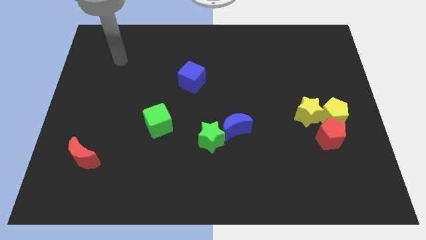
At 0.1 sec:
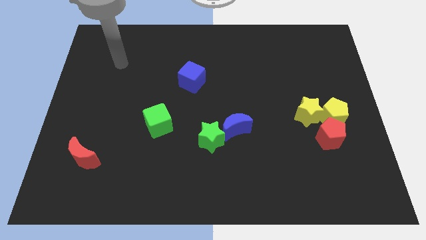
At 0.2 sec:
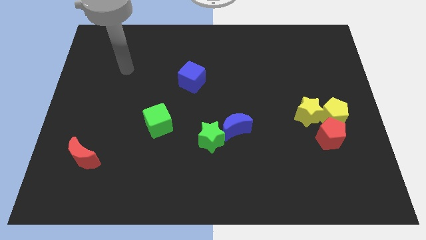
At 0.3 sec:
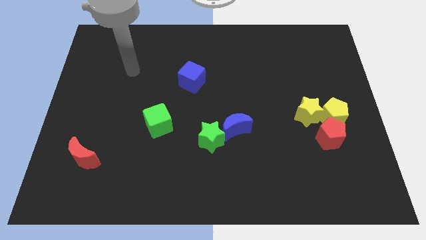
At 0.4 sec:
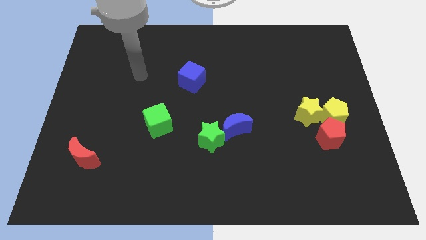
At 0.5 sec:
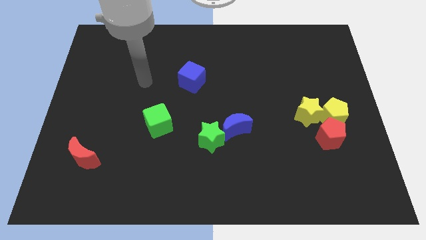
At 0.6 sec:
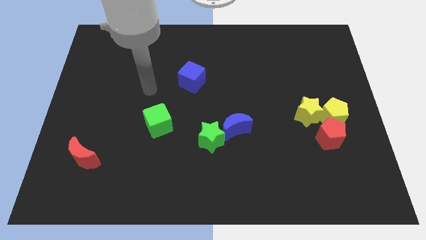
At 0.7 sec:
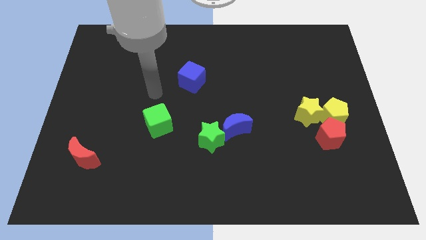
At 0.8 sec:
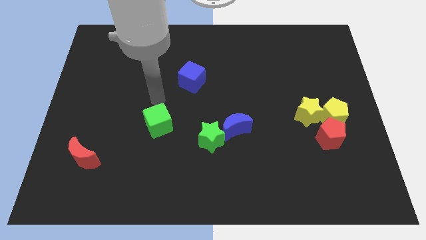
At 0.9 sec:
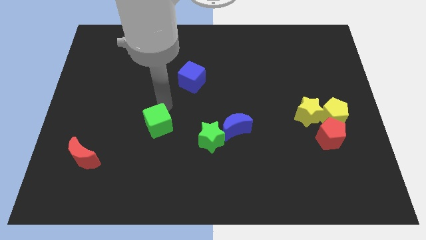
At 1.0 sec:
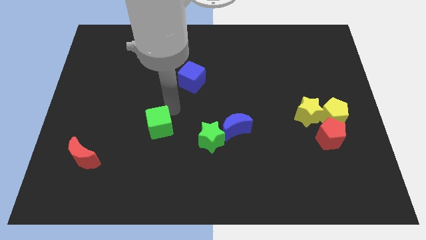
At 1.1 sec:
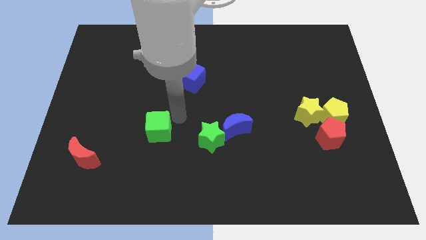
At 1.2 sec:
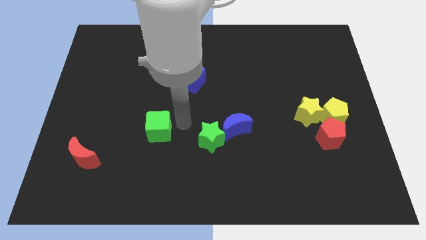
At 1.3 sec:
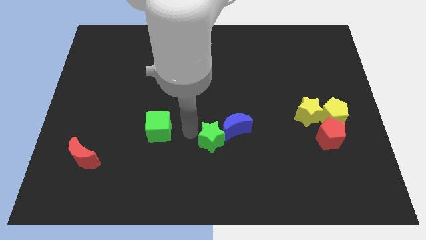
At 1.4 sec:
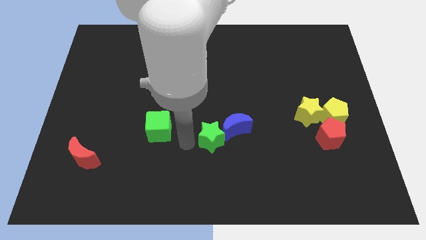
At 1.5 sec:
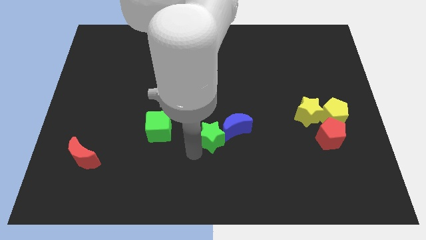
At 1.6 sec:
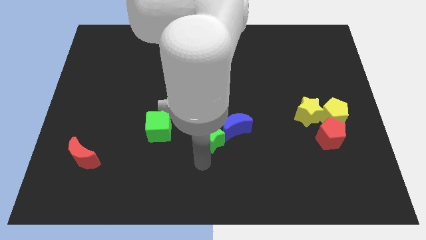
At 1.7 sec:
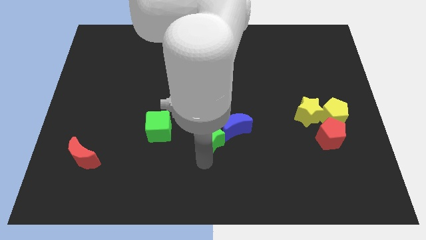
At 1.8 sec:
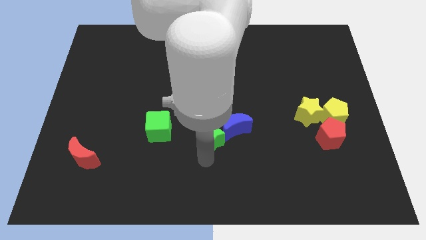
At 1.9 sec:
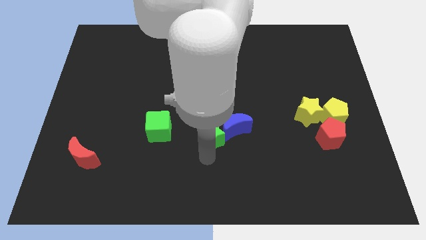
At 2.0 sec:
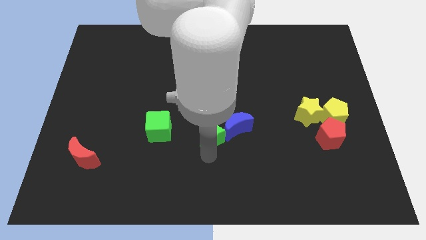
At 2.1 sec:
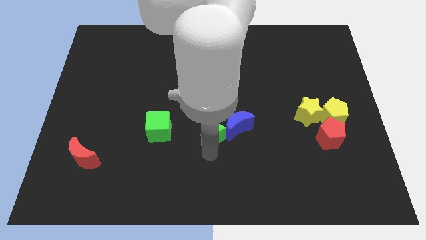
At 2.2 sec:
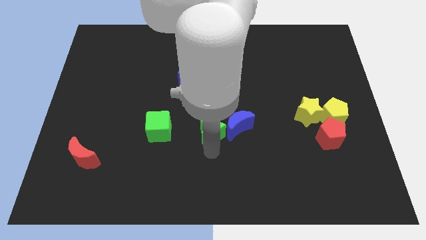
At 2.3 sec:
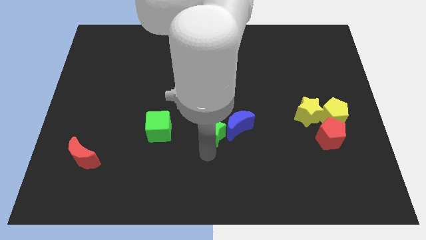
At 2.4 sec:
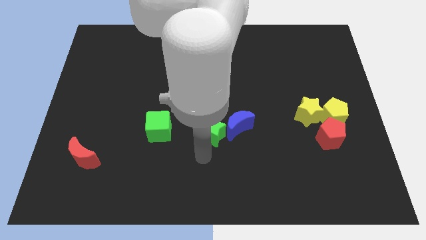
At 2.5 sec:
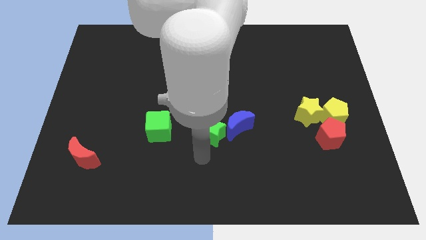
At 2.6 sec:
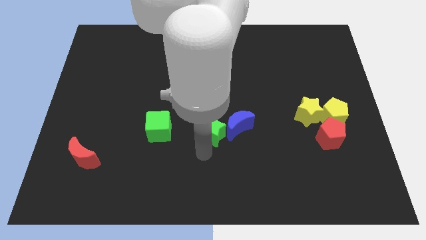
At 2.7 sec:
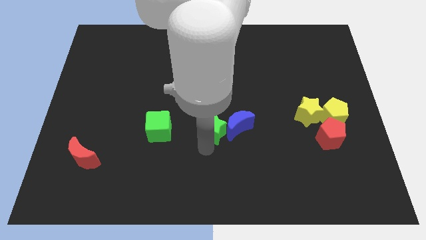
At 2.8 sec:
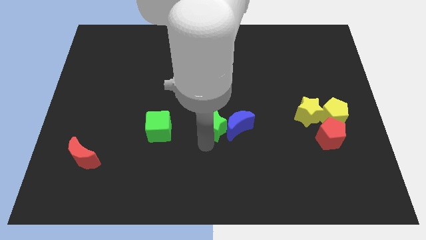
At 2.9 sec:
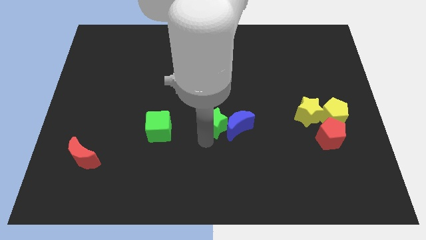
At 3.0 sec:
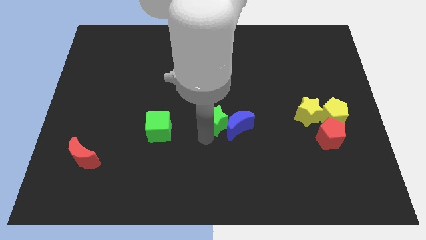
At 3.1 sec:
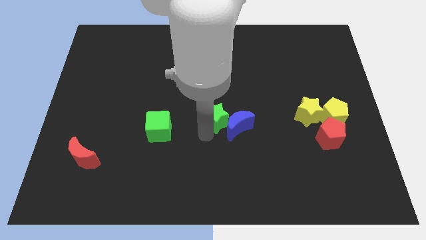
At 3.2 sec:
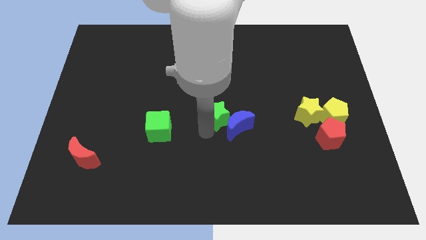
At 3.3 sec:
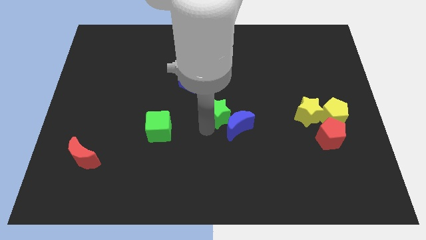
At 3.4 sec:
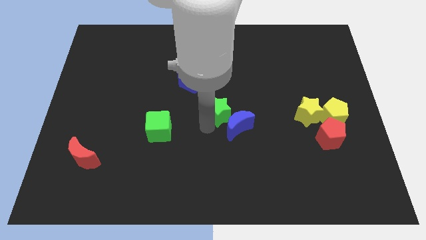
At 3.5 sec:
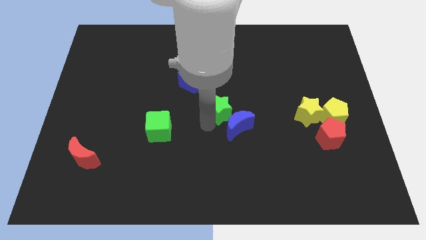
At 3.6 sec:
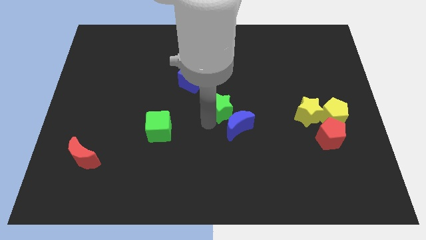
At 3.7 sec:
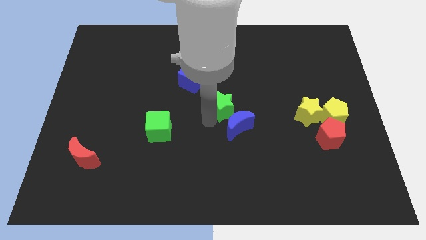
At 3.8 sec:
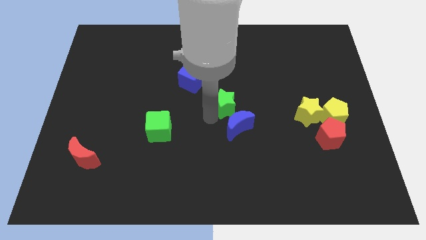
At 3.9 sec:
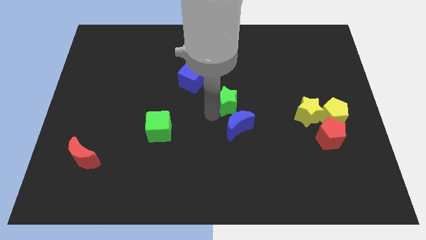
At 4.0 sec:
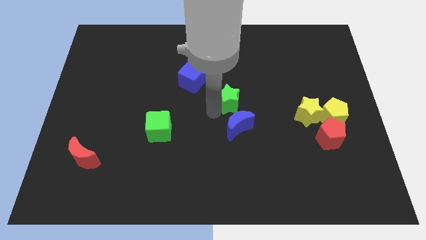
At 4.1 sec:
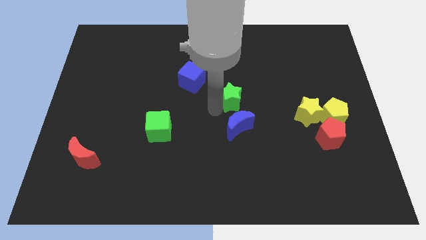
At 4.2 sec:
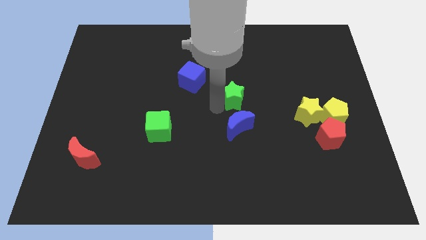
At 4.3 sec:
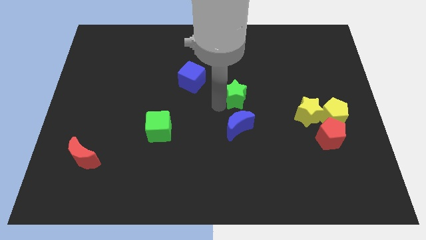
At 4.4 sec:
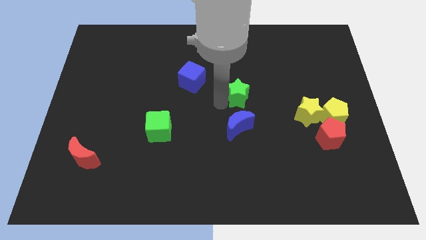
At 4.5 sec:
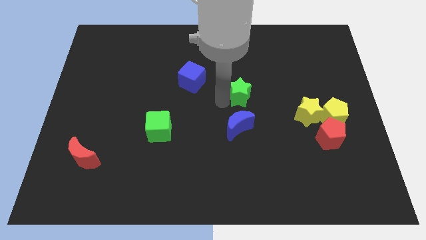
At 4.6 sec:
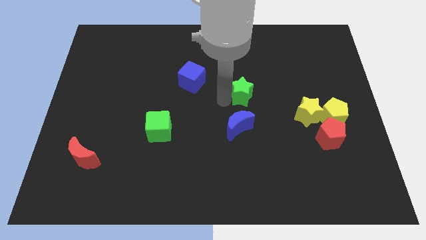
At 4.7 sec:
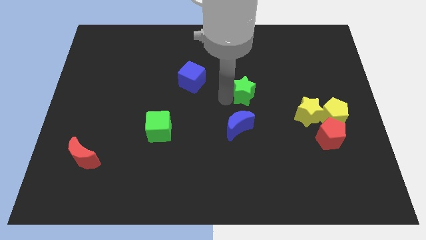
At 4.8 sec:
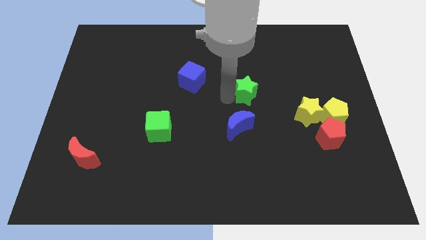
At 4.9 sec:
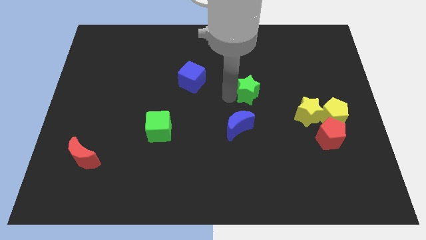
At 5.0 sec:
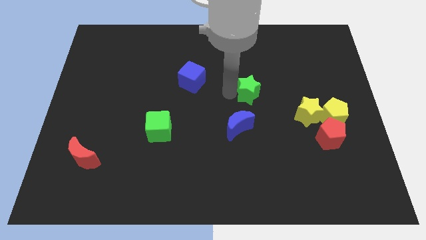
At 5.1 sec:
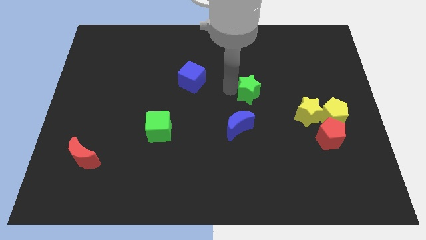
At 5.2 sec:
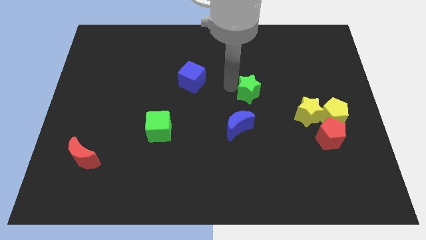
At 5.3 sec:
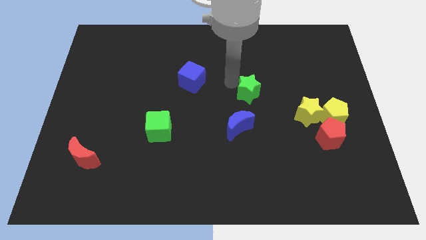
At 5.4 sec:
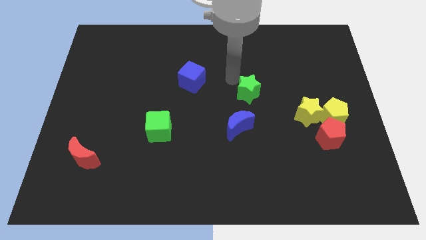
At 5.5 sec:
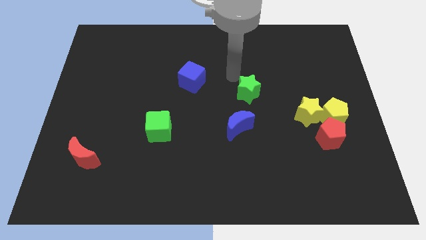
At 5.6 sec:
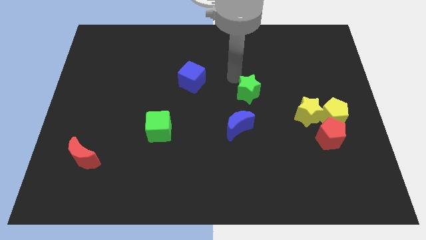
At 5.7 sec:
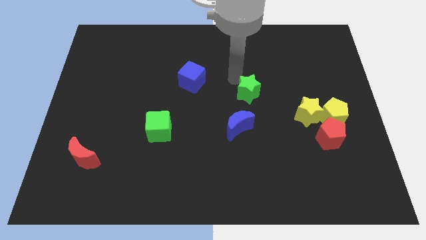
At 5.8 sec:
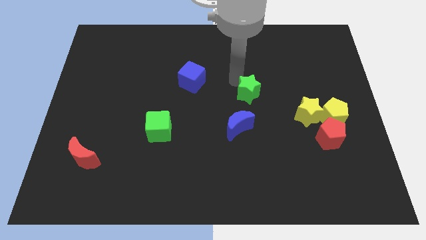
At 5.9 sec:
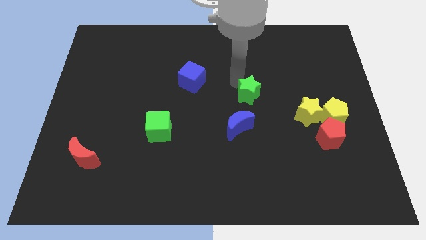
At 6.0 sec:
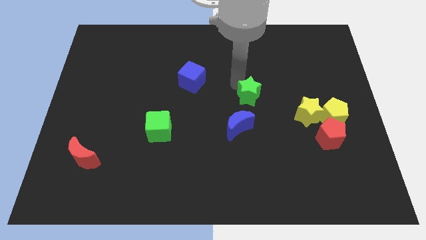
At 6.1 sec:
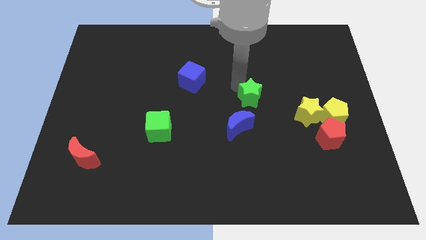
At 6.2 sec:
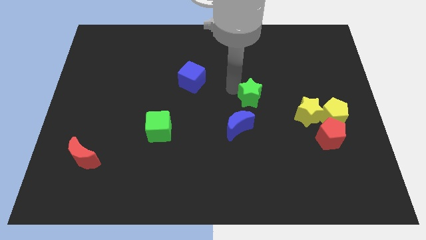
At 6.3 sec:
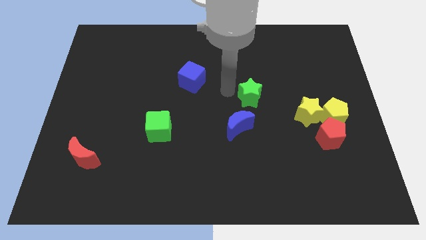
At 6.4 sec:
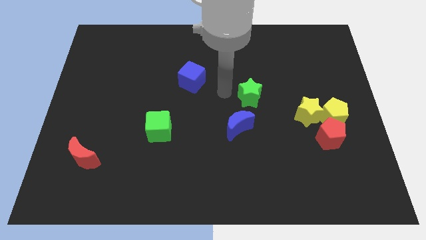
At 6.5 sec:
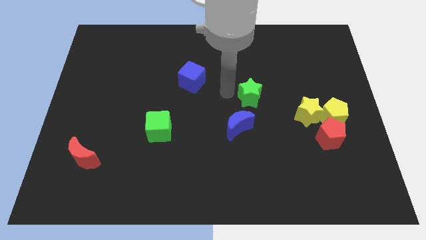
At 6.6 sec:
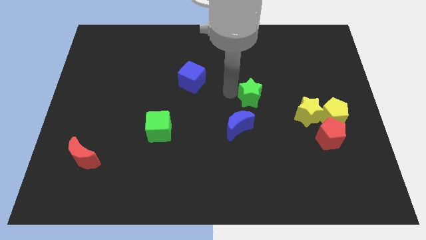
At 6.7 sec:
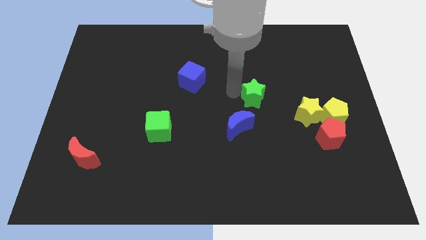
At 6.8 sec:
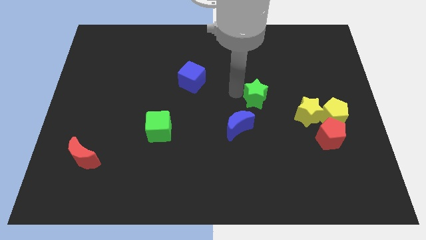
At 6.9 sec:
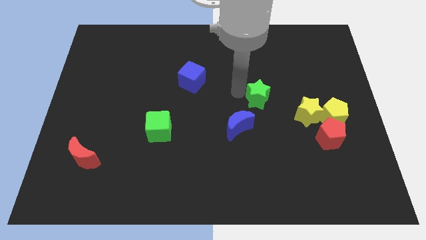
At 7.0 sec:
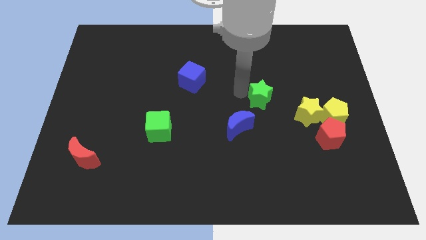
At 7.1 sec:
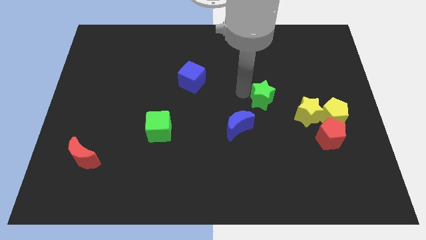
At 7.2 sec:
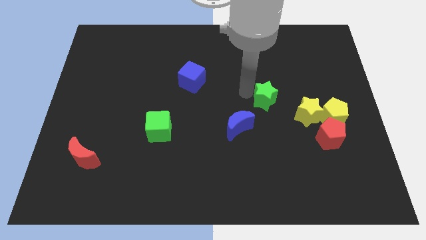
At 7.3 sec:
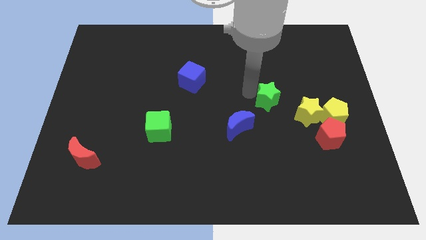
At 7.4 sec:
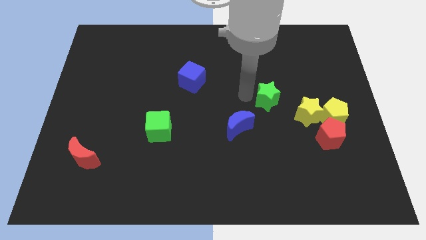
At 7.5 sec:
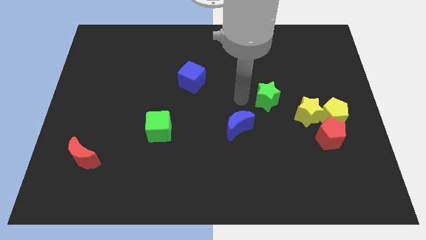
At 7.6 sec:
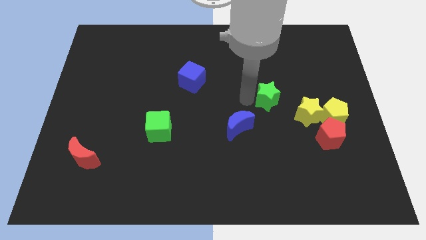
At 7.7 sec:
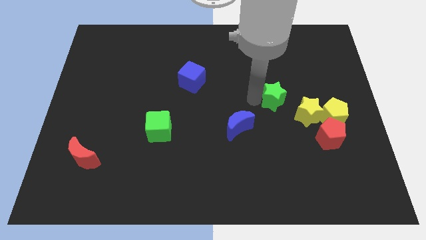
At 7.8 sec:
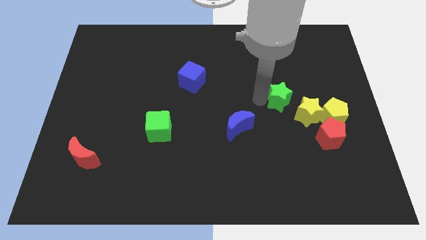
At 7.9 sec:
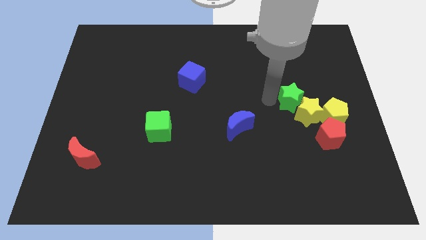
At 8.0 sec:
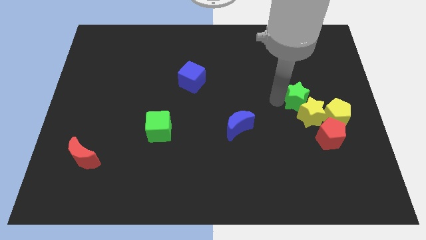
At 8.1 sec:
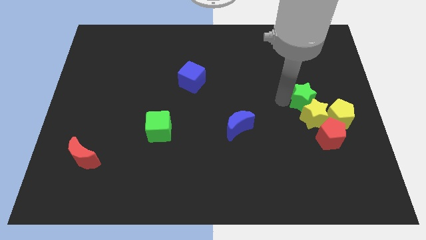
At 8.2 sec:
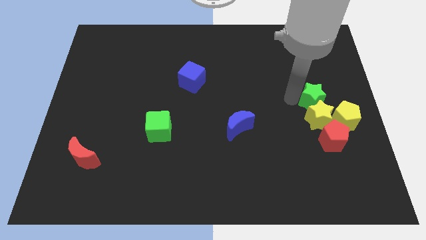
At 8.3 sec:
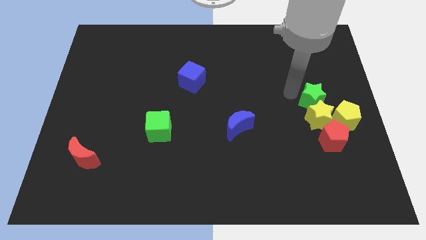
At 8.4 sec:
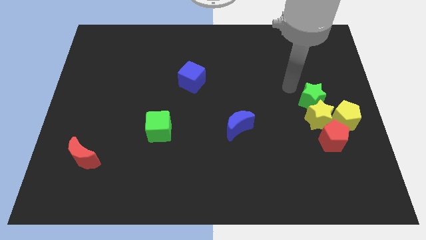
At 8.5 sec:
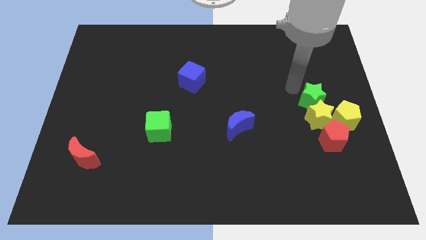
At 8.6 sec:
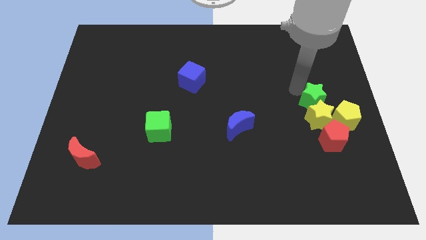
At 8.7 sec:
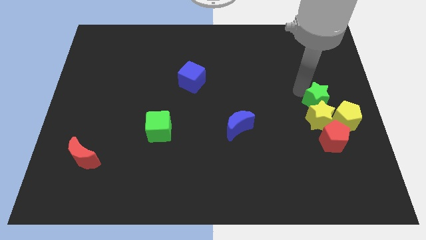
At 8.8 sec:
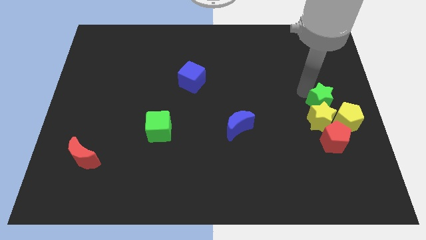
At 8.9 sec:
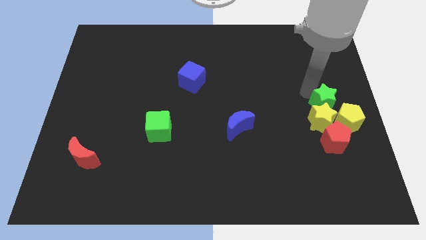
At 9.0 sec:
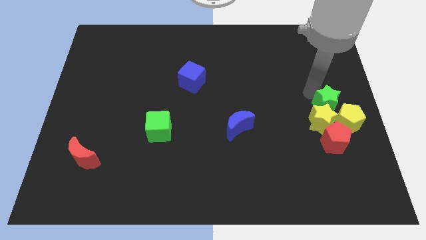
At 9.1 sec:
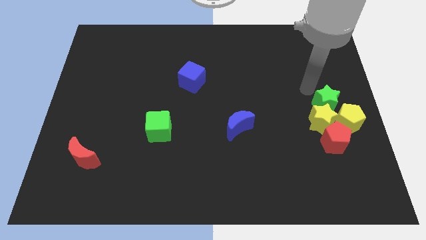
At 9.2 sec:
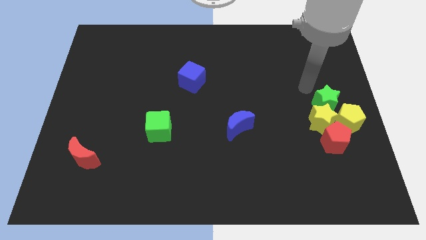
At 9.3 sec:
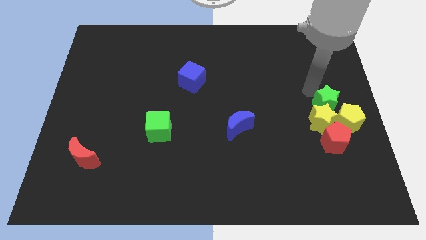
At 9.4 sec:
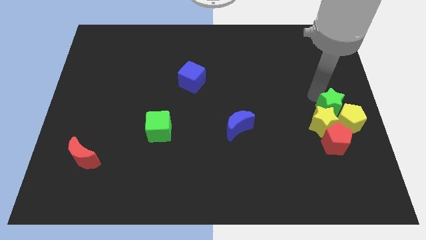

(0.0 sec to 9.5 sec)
put the green star close to the yellow pentagon
